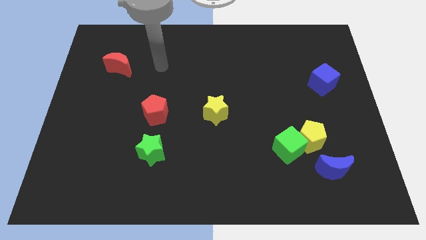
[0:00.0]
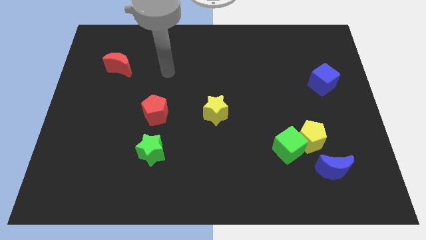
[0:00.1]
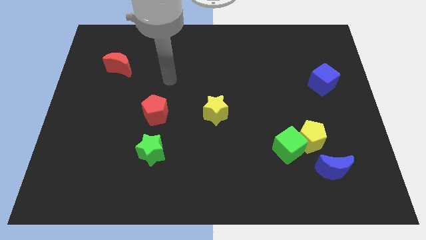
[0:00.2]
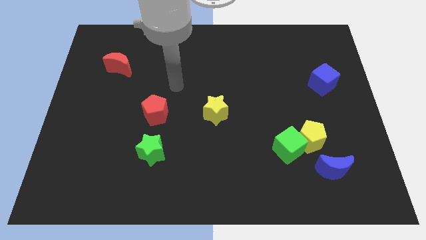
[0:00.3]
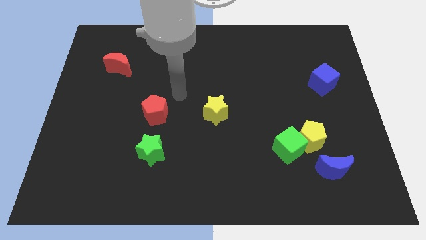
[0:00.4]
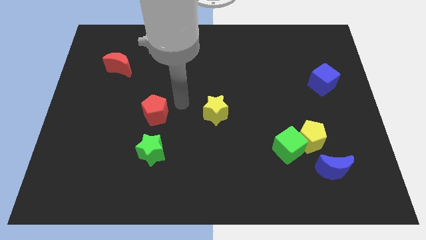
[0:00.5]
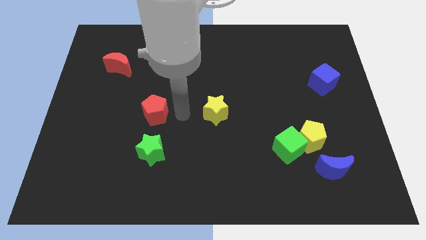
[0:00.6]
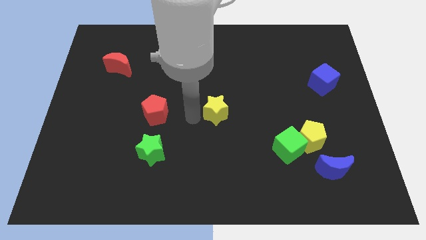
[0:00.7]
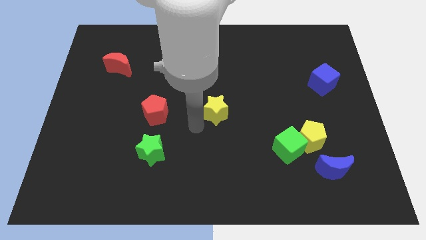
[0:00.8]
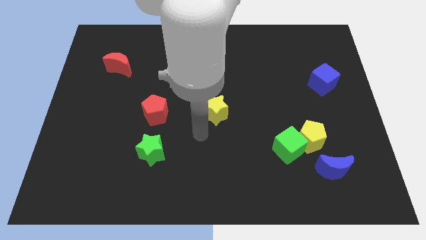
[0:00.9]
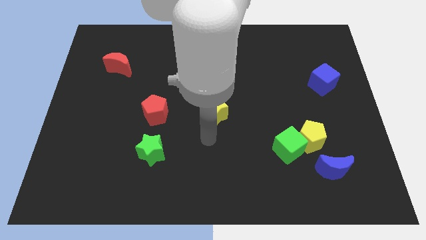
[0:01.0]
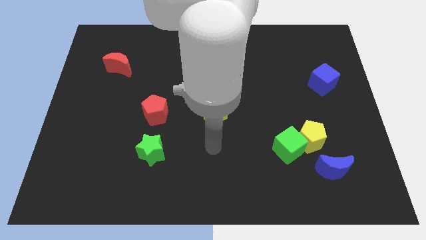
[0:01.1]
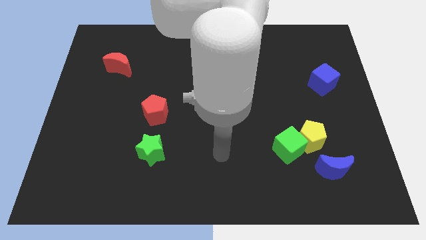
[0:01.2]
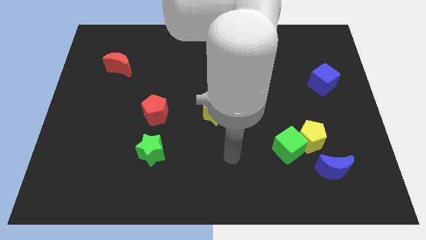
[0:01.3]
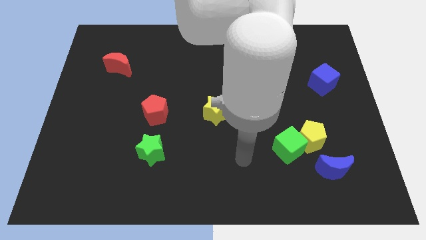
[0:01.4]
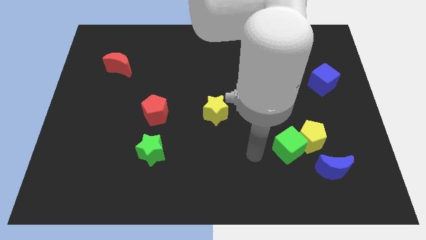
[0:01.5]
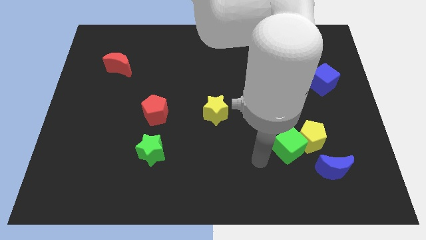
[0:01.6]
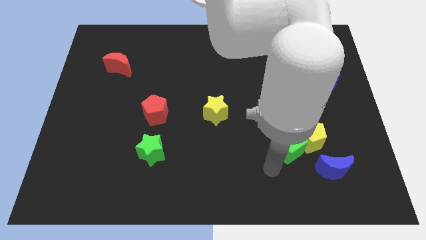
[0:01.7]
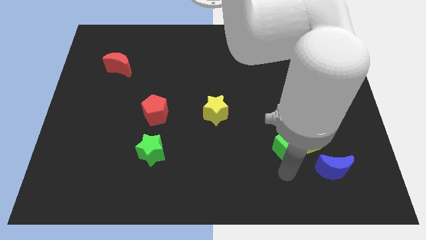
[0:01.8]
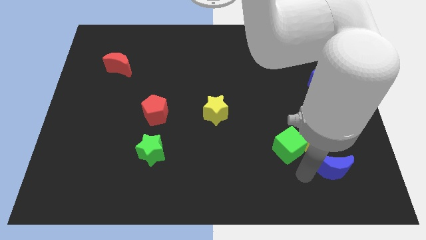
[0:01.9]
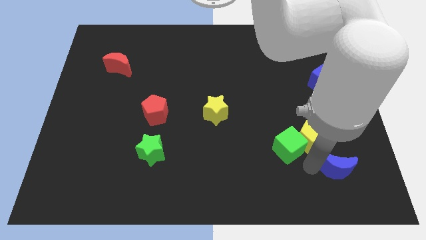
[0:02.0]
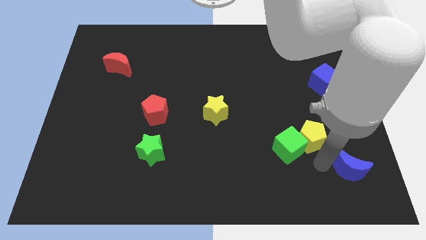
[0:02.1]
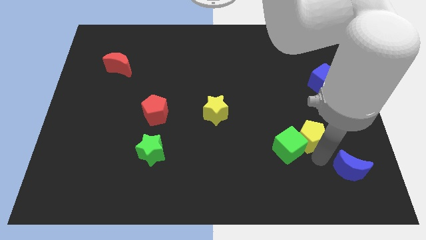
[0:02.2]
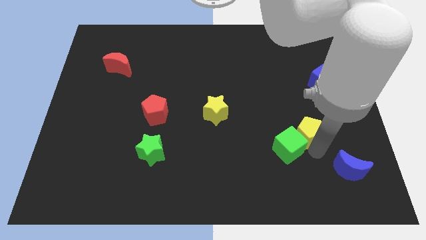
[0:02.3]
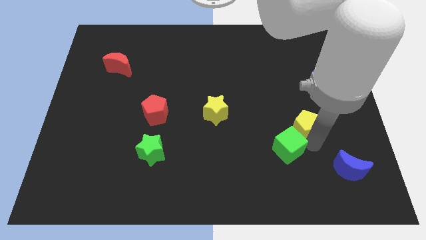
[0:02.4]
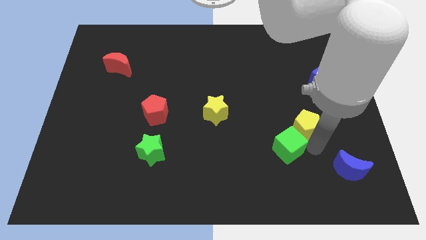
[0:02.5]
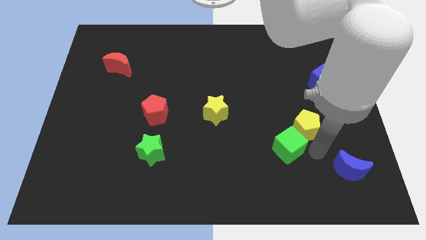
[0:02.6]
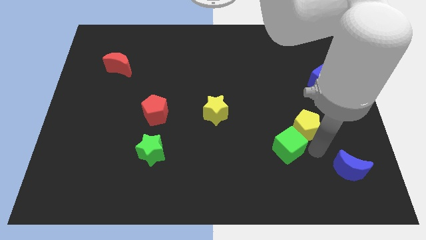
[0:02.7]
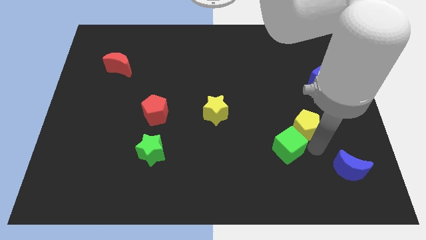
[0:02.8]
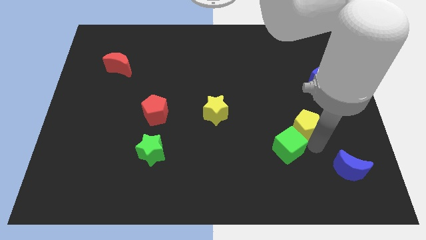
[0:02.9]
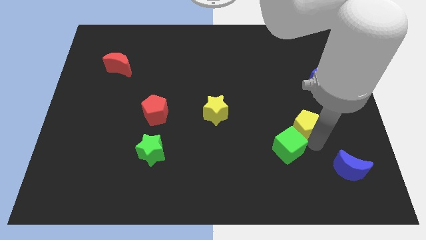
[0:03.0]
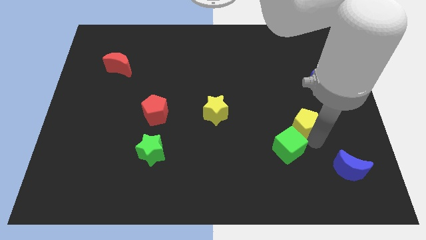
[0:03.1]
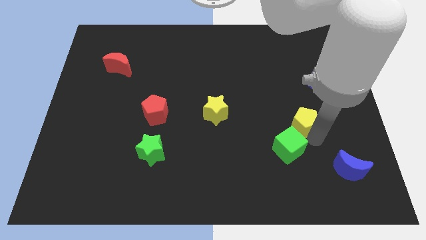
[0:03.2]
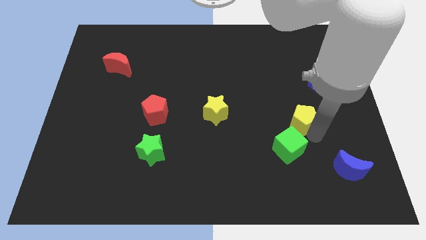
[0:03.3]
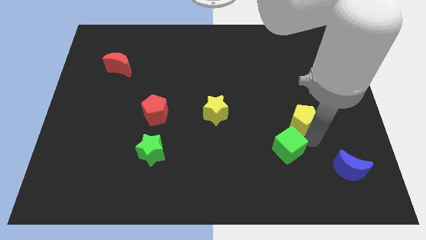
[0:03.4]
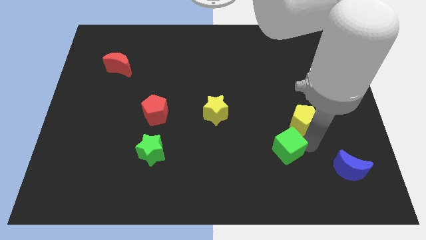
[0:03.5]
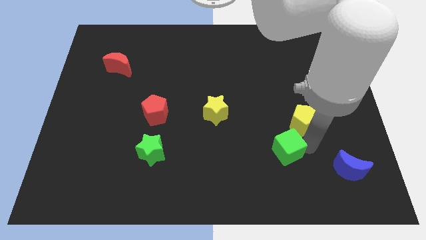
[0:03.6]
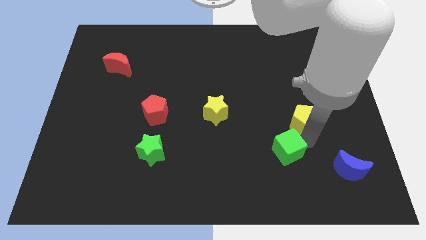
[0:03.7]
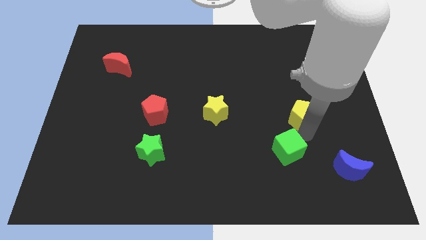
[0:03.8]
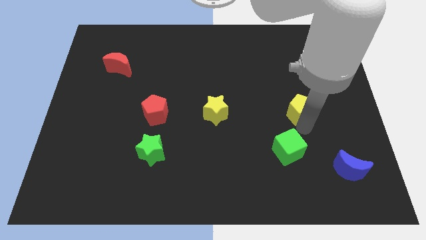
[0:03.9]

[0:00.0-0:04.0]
slide the yellow pentagon a little bit up

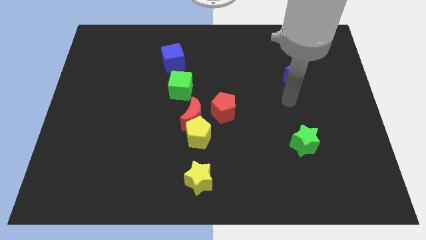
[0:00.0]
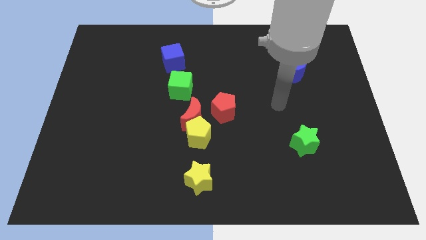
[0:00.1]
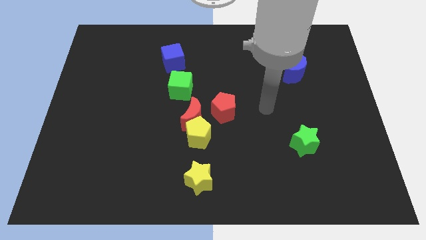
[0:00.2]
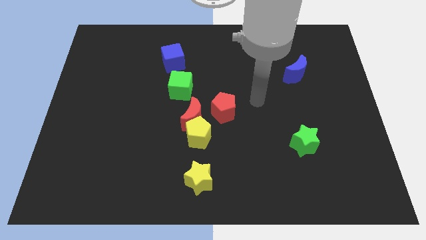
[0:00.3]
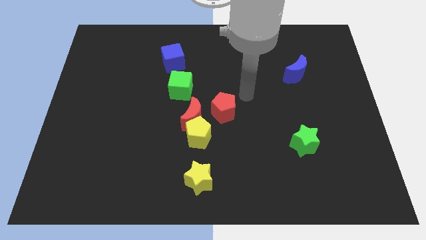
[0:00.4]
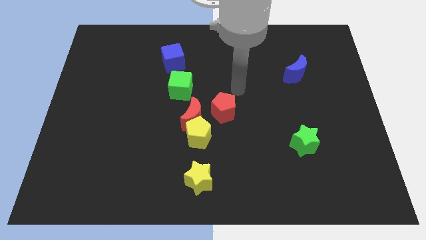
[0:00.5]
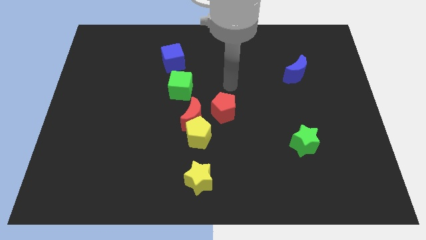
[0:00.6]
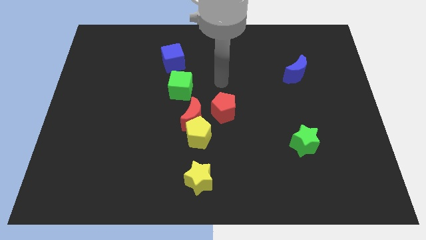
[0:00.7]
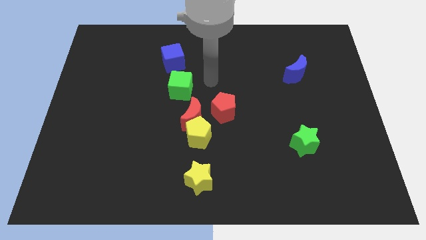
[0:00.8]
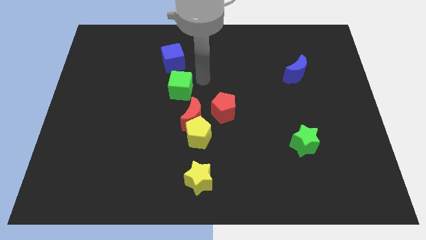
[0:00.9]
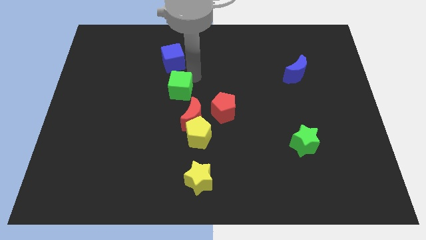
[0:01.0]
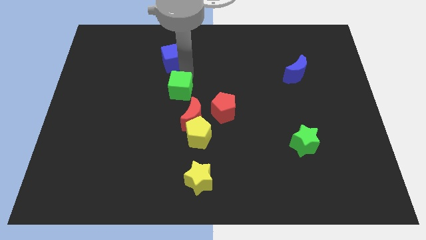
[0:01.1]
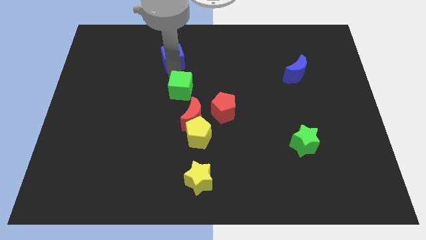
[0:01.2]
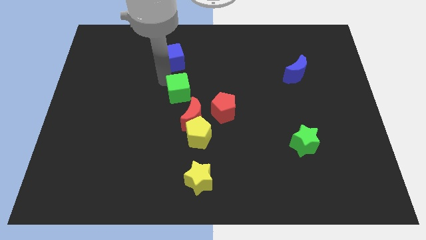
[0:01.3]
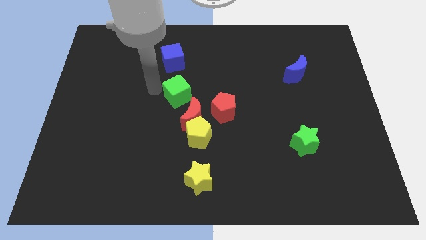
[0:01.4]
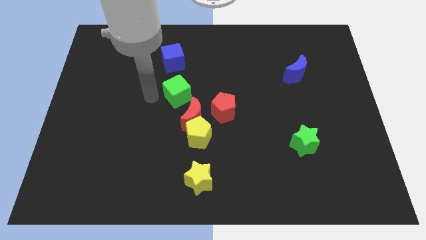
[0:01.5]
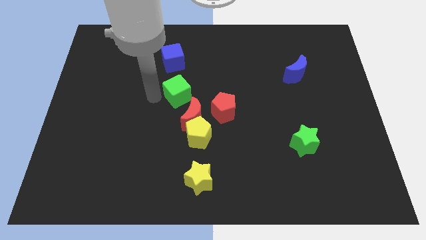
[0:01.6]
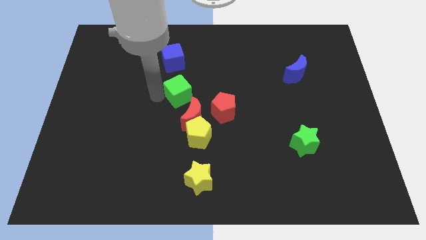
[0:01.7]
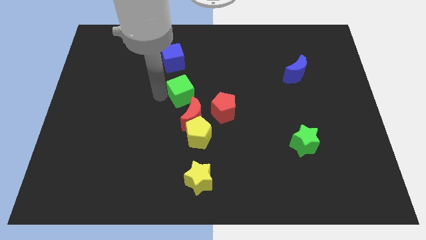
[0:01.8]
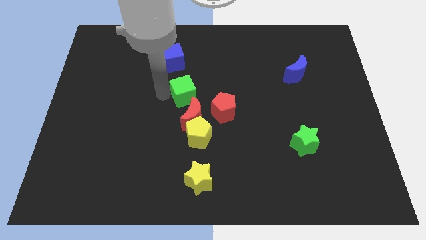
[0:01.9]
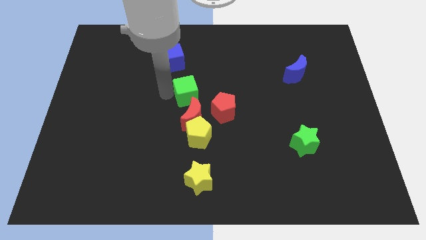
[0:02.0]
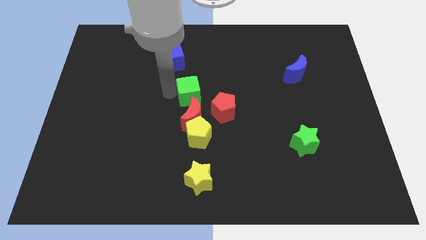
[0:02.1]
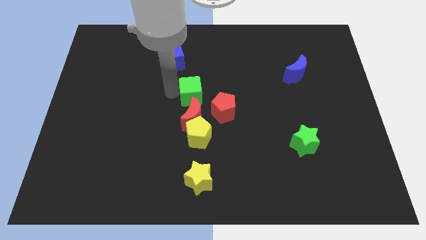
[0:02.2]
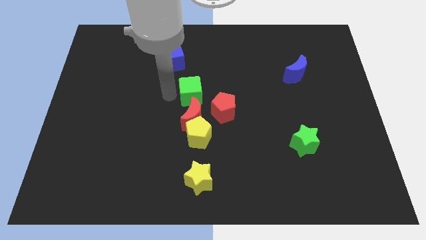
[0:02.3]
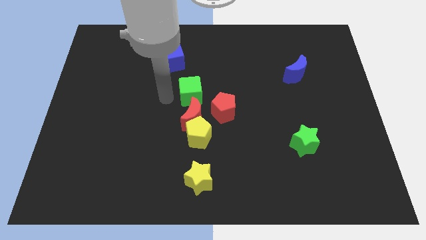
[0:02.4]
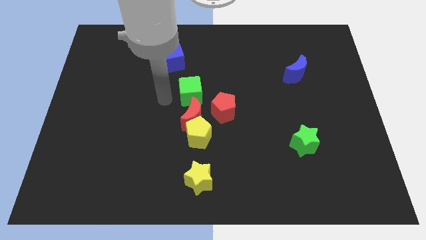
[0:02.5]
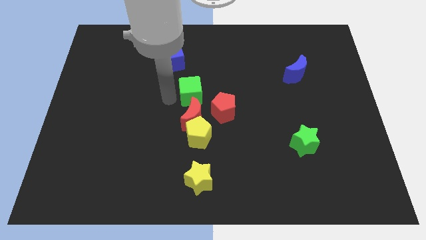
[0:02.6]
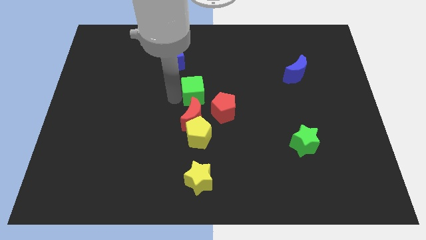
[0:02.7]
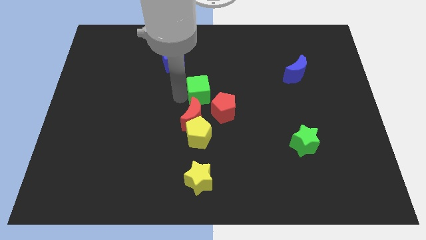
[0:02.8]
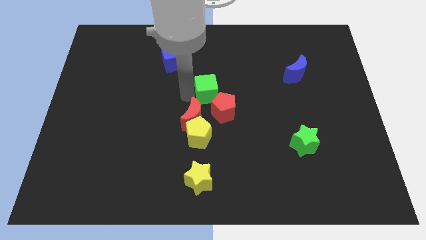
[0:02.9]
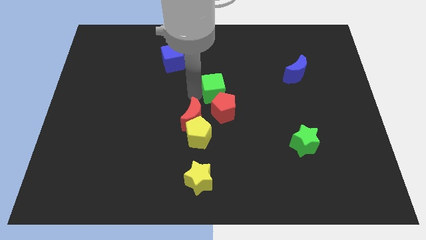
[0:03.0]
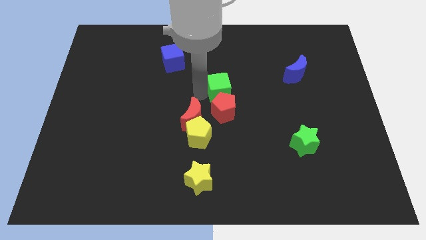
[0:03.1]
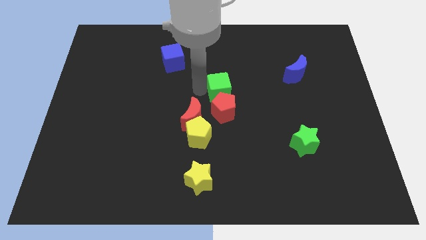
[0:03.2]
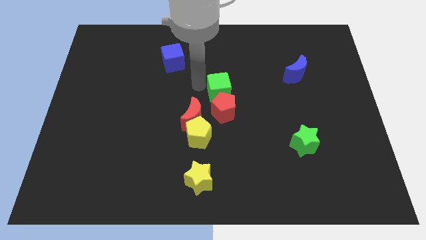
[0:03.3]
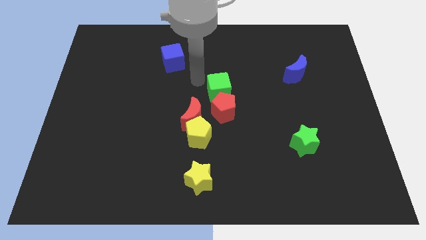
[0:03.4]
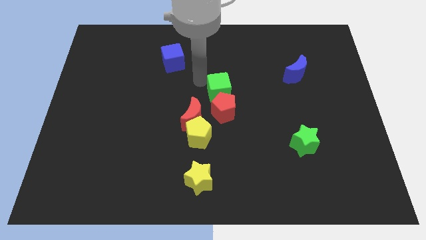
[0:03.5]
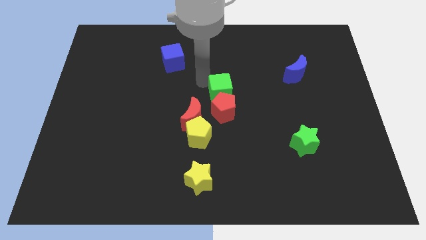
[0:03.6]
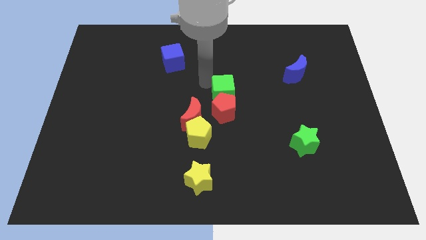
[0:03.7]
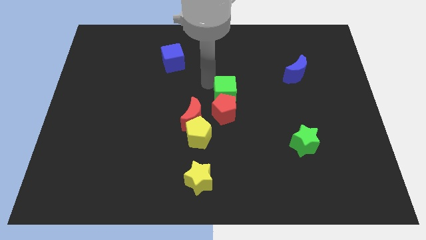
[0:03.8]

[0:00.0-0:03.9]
push the green cube downwards and to the right diagonally somewhat

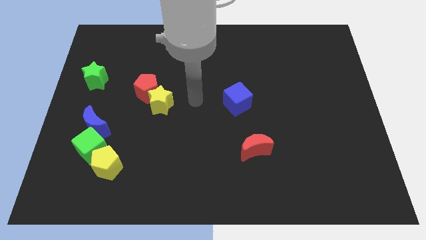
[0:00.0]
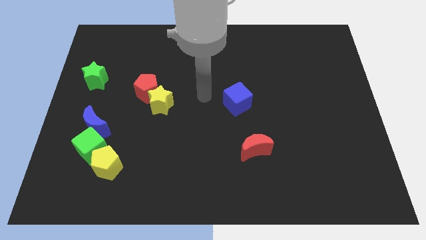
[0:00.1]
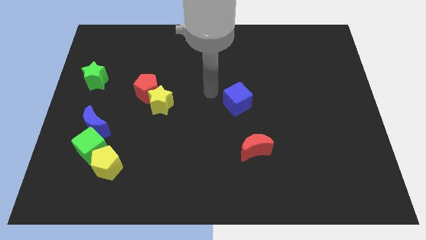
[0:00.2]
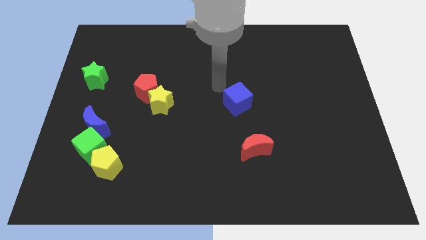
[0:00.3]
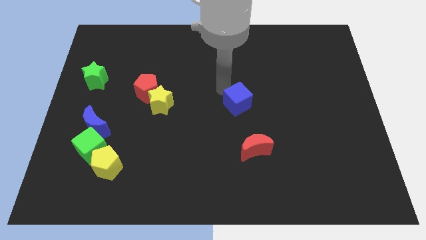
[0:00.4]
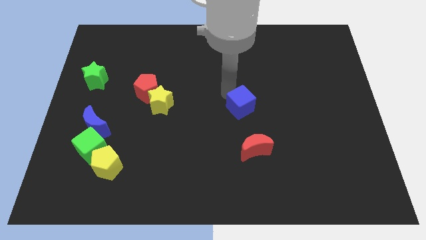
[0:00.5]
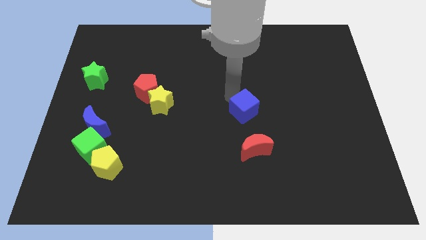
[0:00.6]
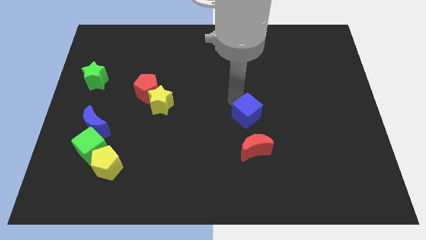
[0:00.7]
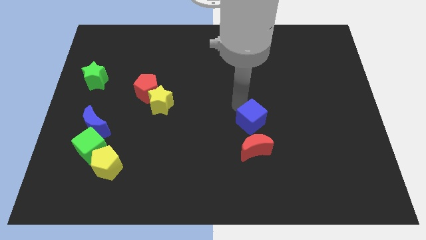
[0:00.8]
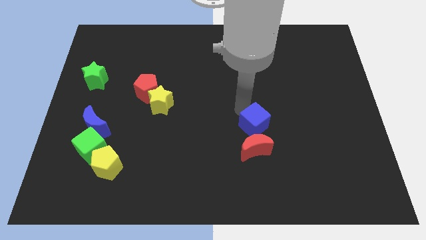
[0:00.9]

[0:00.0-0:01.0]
slide the blue cube a little down and then to the right
